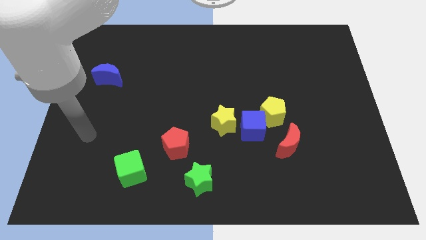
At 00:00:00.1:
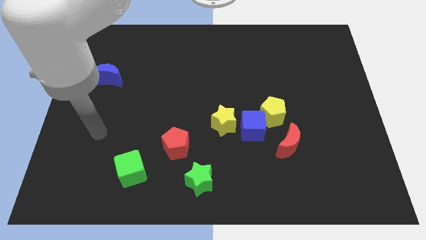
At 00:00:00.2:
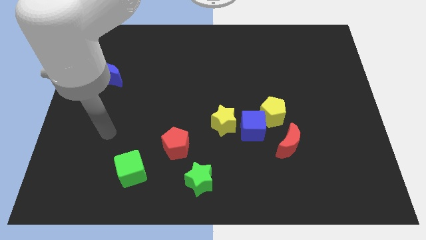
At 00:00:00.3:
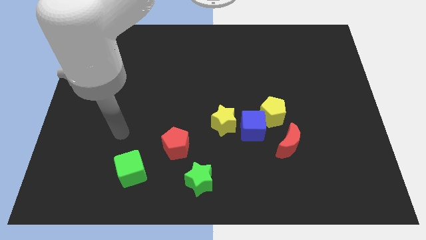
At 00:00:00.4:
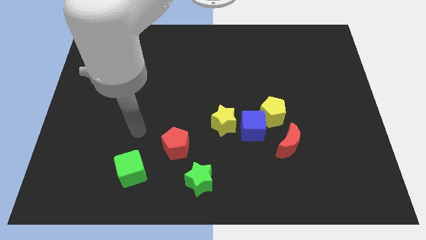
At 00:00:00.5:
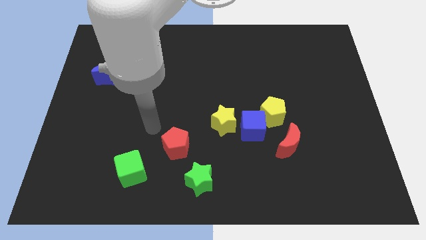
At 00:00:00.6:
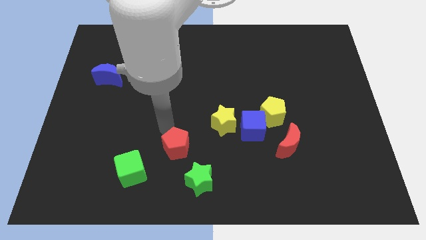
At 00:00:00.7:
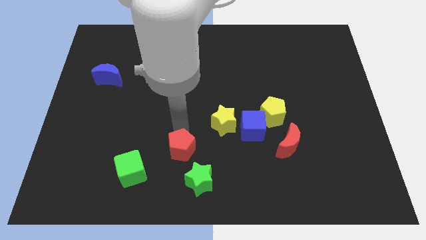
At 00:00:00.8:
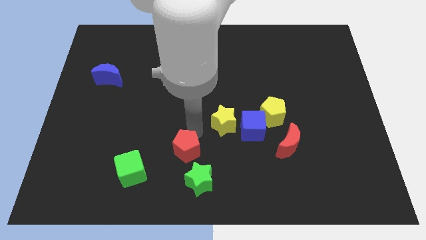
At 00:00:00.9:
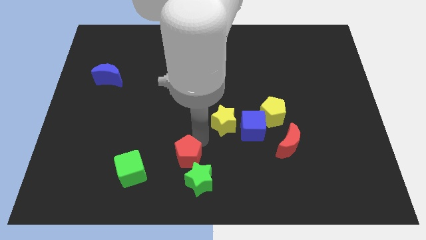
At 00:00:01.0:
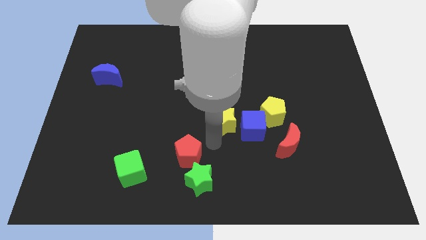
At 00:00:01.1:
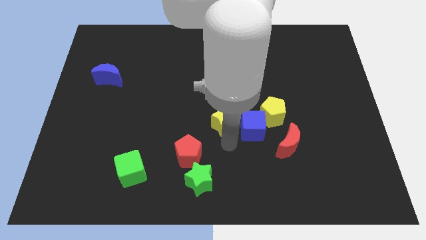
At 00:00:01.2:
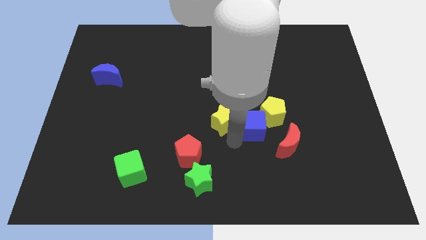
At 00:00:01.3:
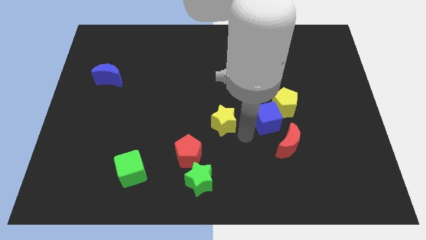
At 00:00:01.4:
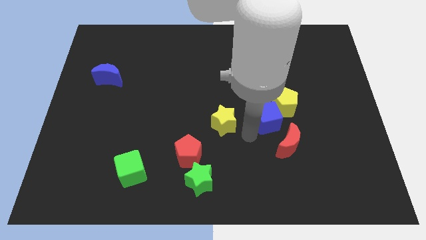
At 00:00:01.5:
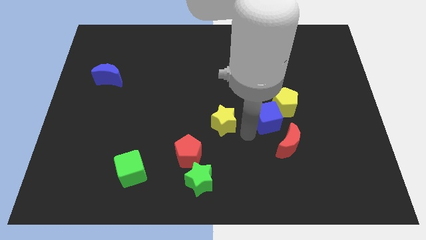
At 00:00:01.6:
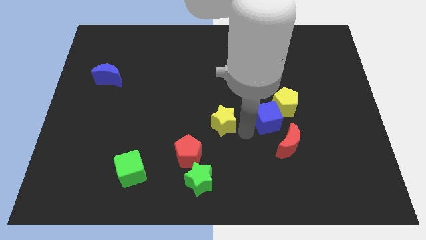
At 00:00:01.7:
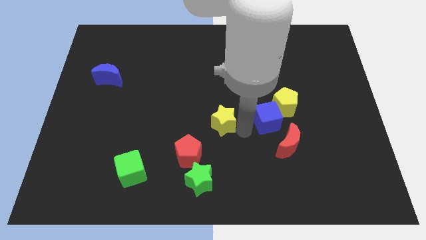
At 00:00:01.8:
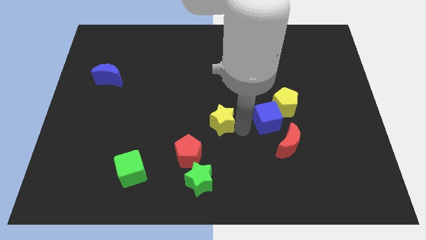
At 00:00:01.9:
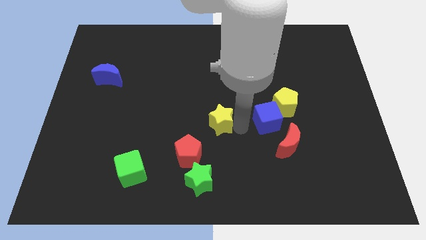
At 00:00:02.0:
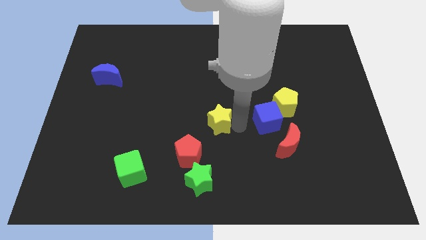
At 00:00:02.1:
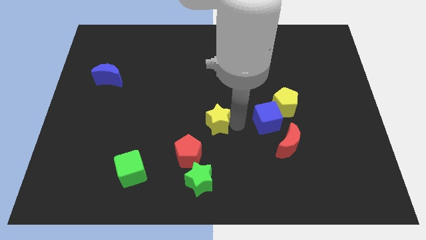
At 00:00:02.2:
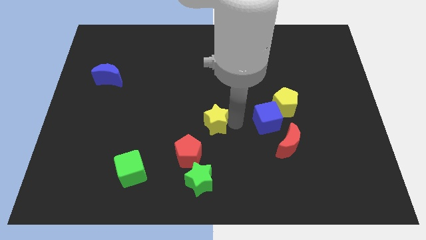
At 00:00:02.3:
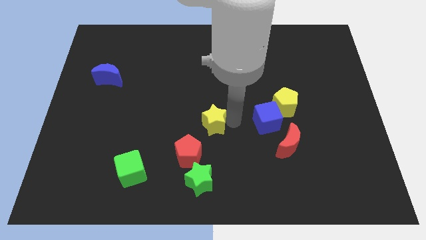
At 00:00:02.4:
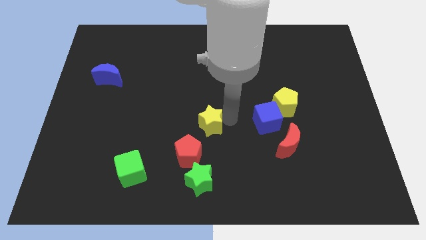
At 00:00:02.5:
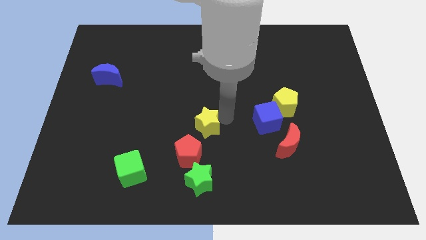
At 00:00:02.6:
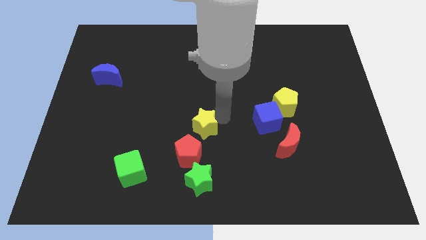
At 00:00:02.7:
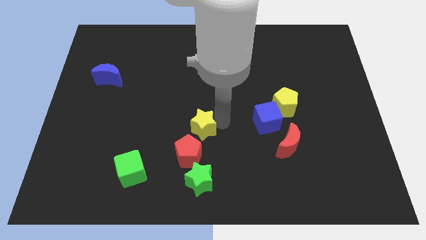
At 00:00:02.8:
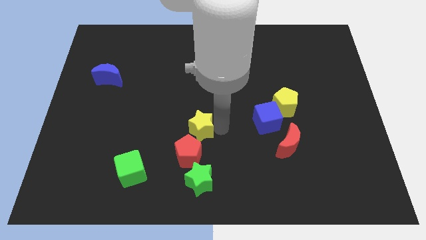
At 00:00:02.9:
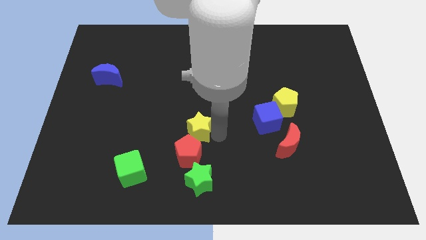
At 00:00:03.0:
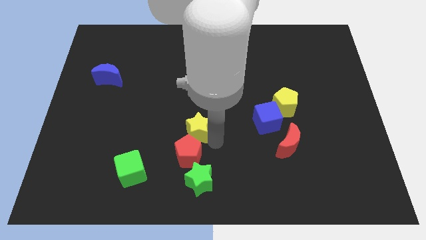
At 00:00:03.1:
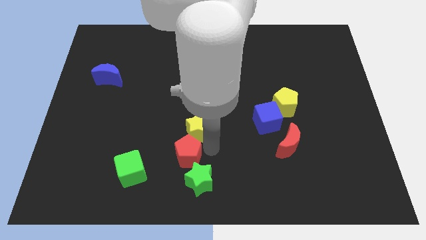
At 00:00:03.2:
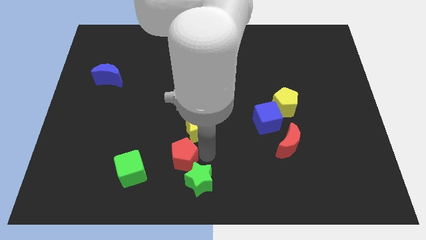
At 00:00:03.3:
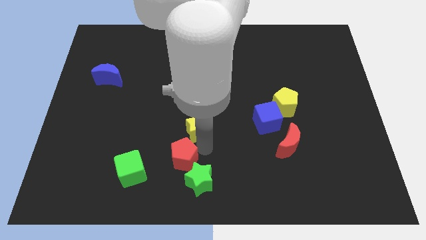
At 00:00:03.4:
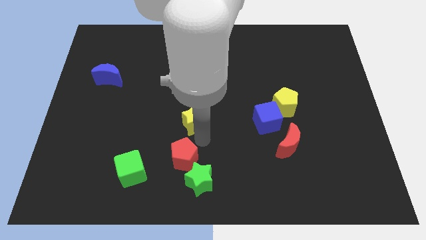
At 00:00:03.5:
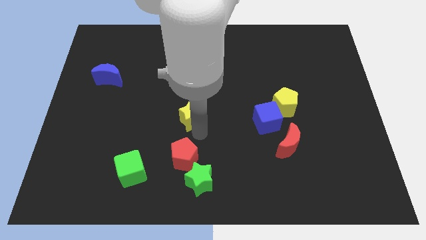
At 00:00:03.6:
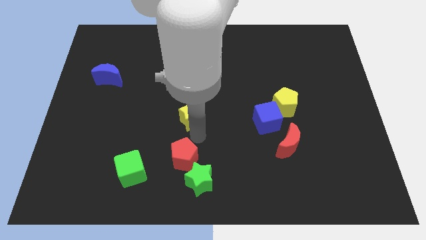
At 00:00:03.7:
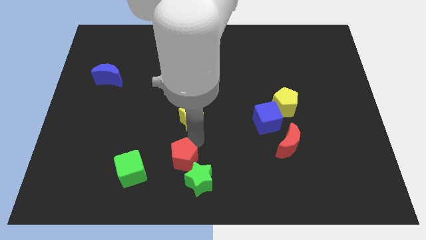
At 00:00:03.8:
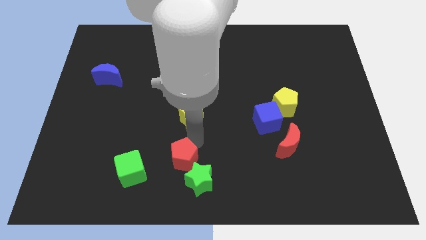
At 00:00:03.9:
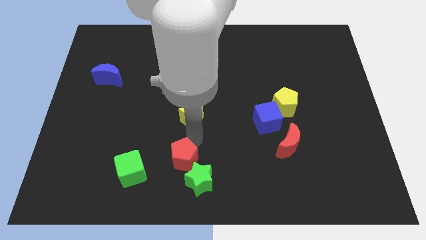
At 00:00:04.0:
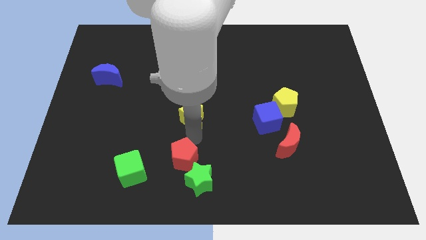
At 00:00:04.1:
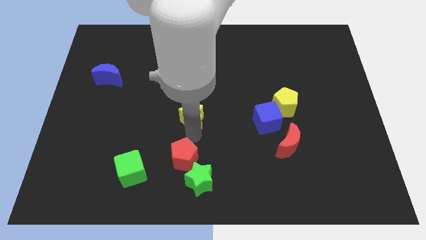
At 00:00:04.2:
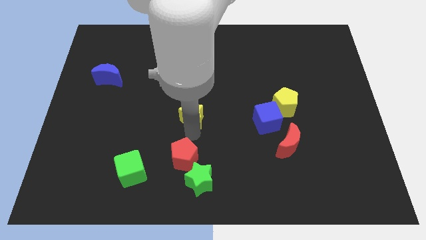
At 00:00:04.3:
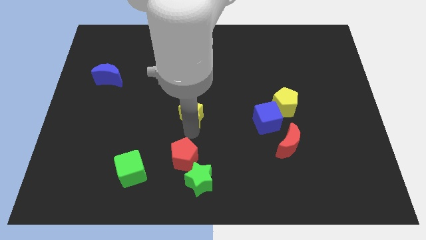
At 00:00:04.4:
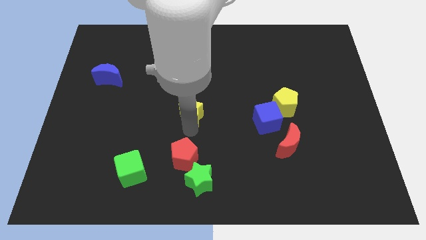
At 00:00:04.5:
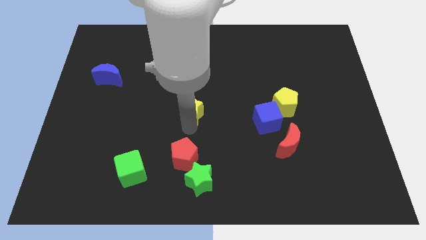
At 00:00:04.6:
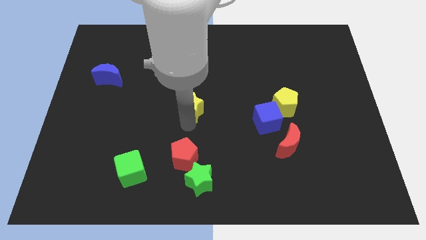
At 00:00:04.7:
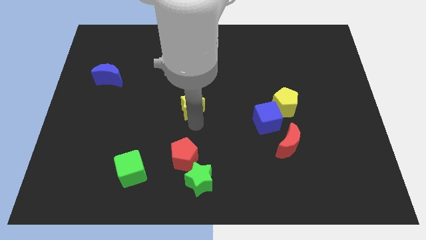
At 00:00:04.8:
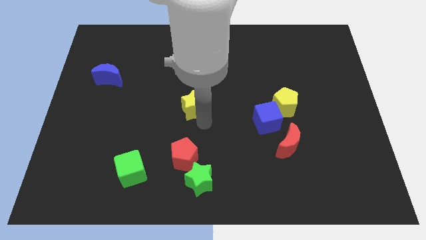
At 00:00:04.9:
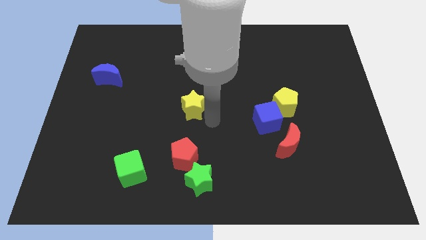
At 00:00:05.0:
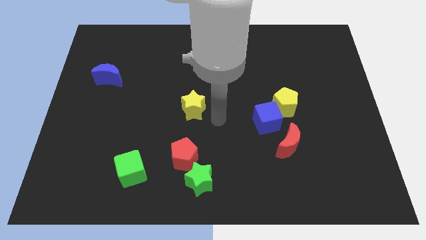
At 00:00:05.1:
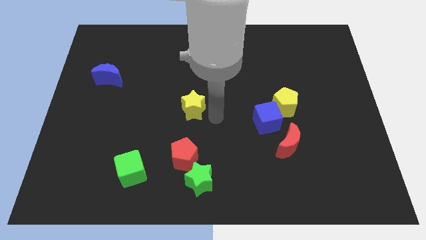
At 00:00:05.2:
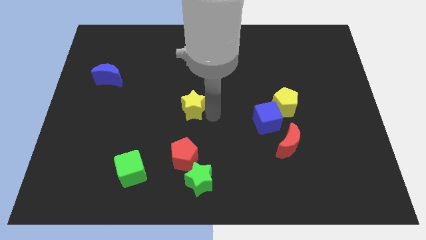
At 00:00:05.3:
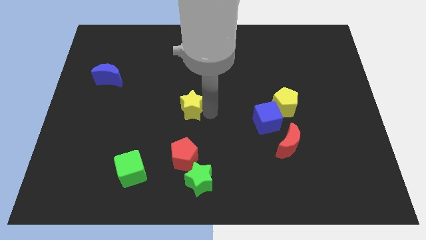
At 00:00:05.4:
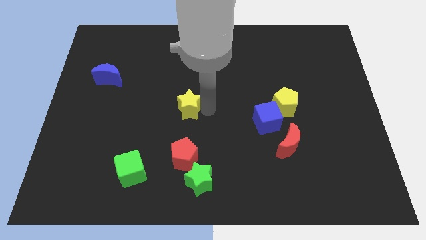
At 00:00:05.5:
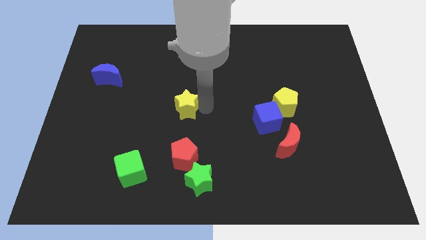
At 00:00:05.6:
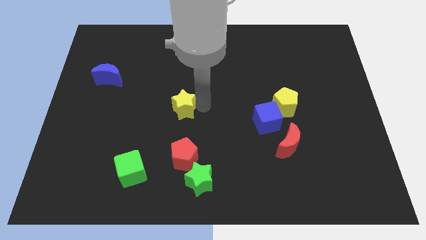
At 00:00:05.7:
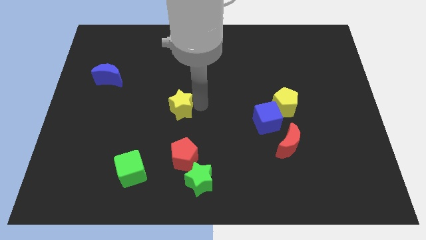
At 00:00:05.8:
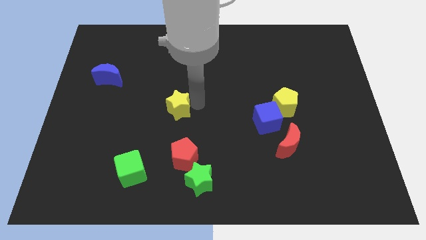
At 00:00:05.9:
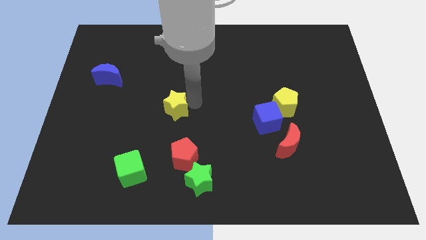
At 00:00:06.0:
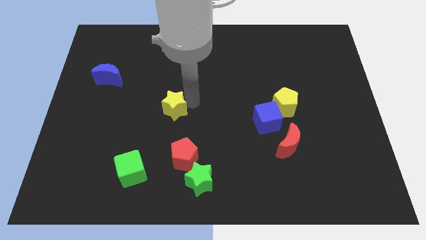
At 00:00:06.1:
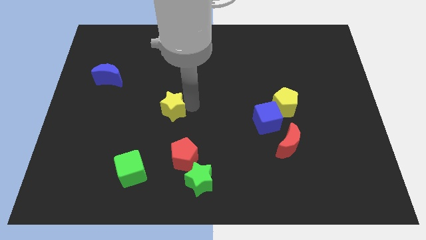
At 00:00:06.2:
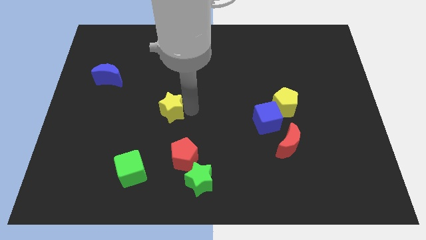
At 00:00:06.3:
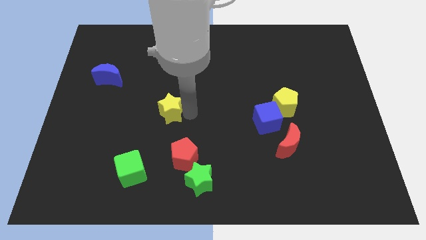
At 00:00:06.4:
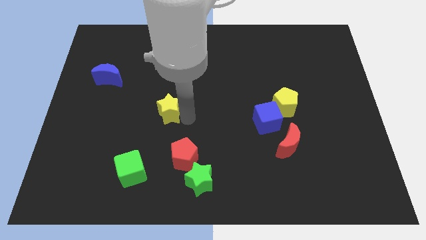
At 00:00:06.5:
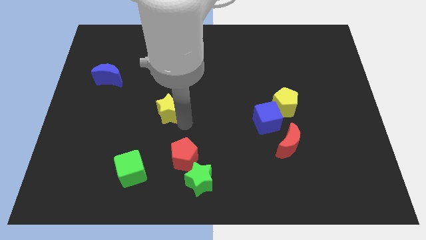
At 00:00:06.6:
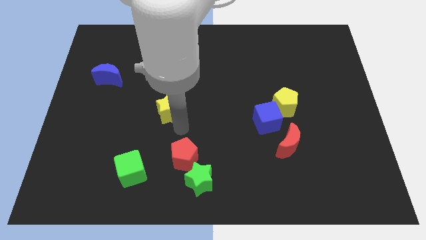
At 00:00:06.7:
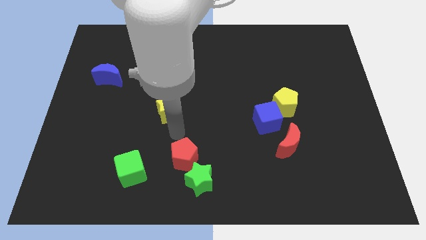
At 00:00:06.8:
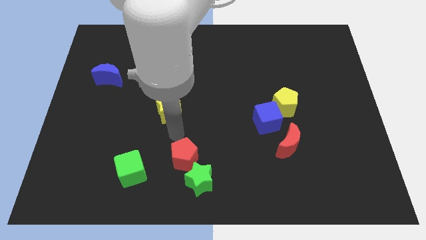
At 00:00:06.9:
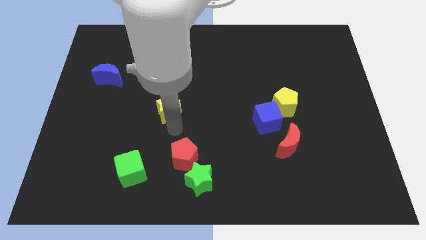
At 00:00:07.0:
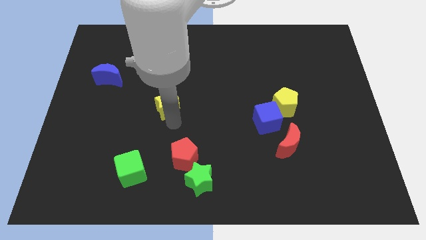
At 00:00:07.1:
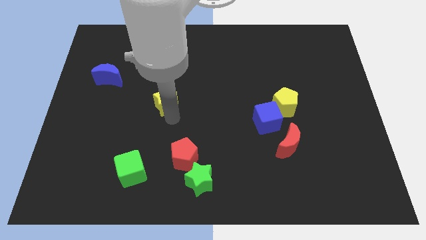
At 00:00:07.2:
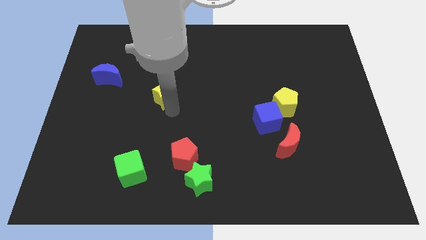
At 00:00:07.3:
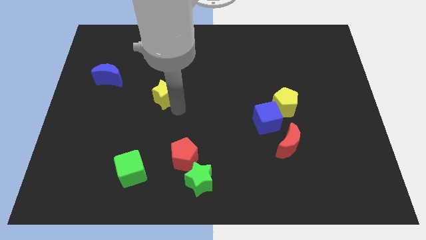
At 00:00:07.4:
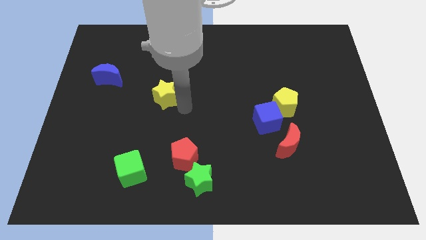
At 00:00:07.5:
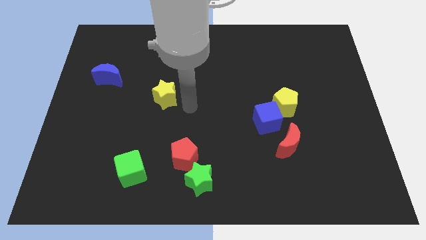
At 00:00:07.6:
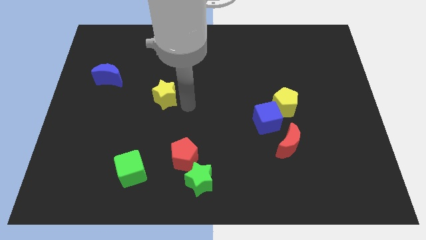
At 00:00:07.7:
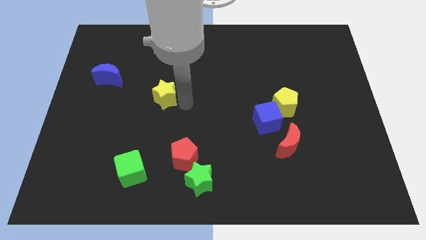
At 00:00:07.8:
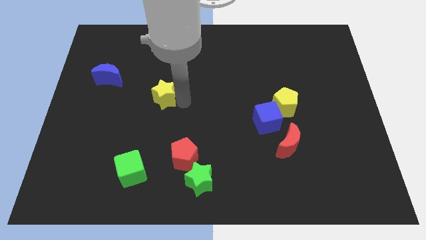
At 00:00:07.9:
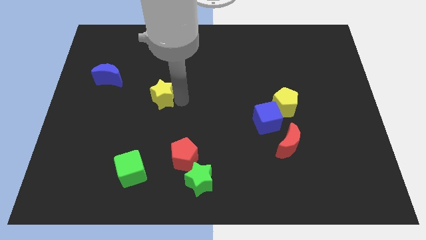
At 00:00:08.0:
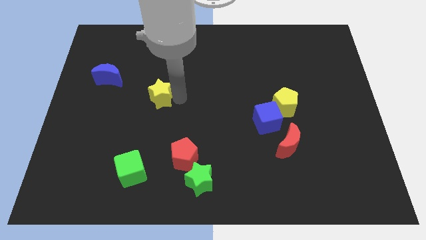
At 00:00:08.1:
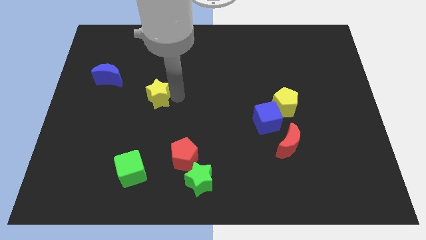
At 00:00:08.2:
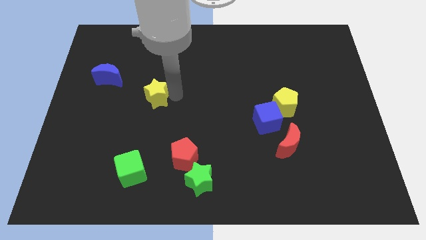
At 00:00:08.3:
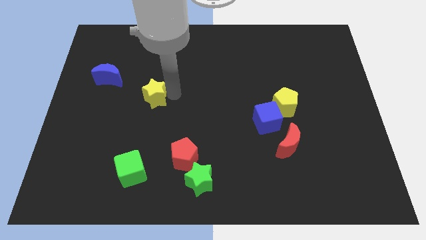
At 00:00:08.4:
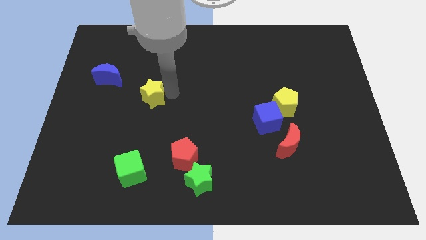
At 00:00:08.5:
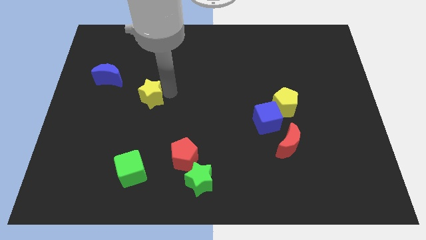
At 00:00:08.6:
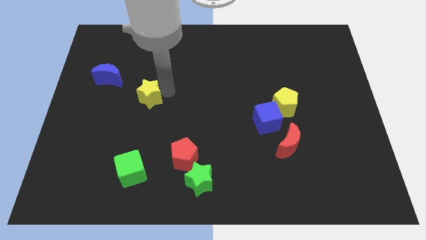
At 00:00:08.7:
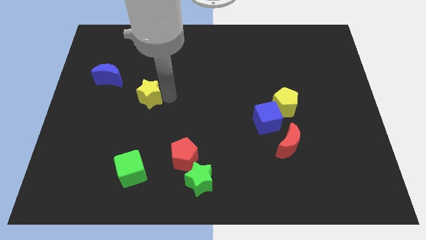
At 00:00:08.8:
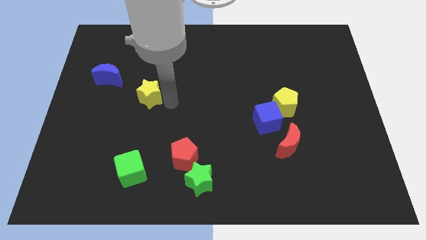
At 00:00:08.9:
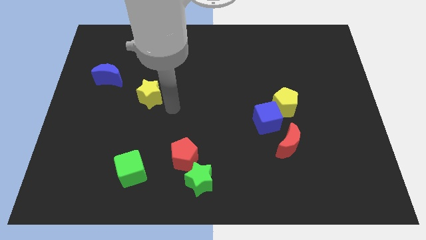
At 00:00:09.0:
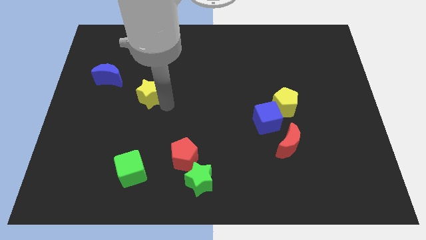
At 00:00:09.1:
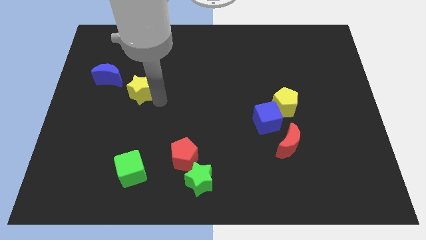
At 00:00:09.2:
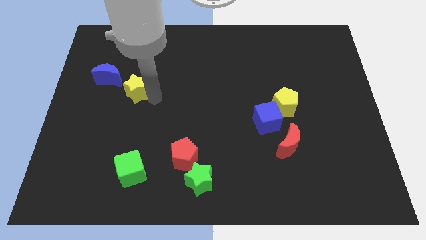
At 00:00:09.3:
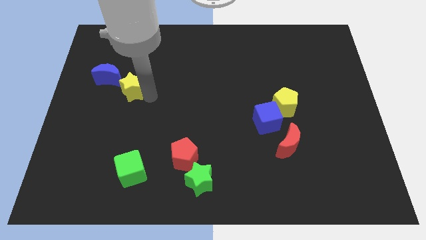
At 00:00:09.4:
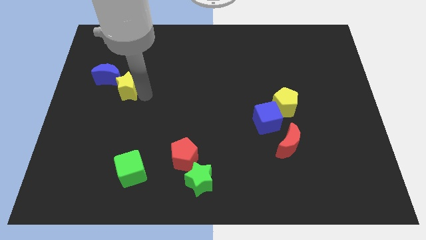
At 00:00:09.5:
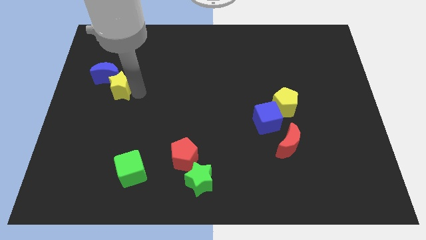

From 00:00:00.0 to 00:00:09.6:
move the yellow star next to the blue moon
